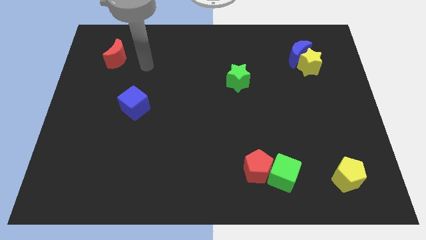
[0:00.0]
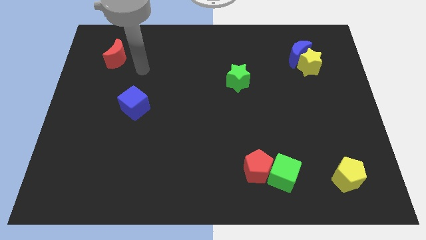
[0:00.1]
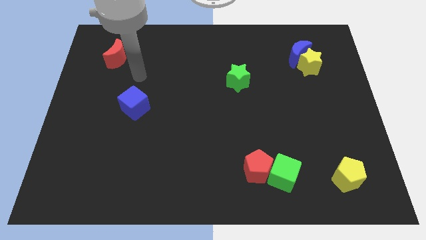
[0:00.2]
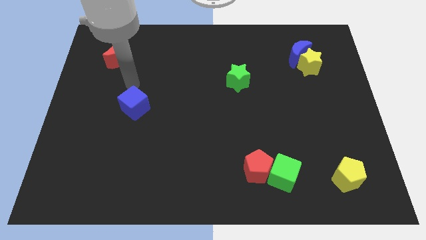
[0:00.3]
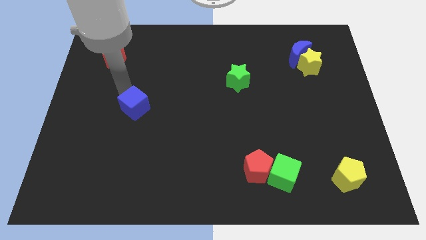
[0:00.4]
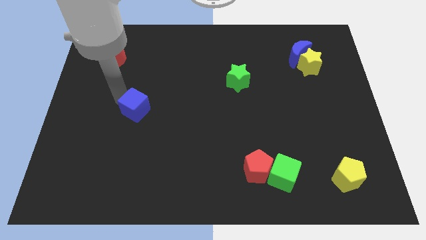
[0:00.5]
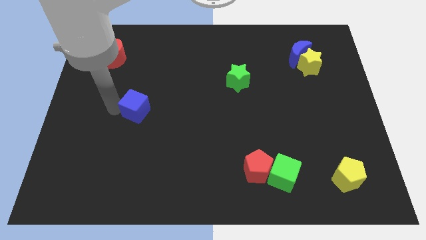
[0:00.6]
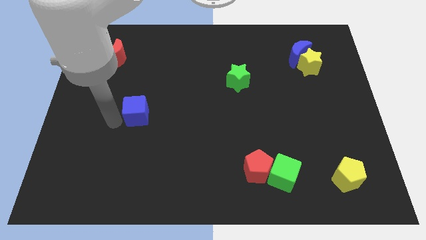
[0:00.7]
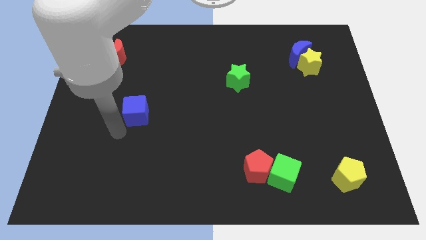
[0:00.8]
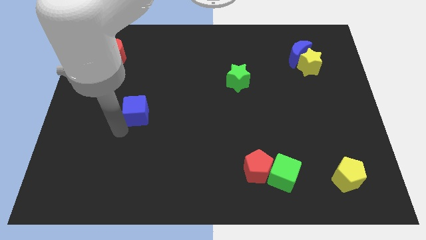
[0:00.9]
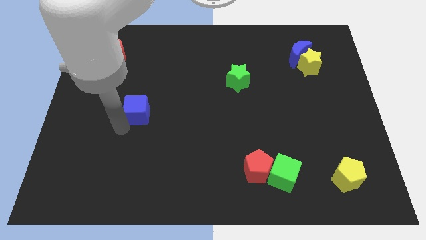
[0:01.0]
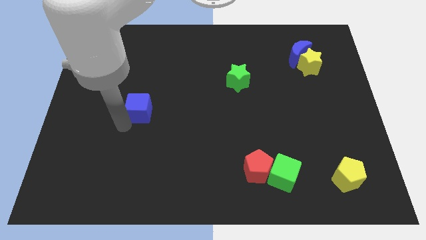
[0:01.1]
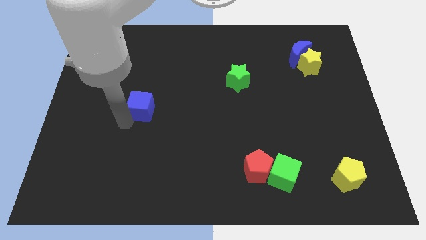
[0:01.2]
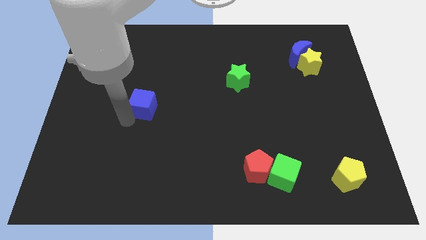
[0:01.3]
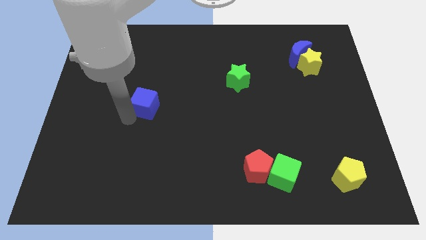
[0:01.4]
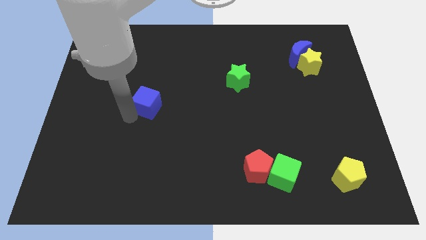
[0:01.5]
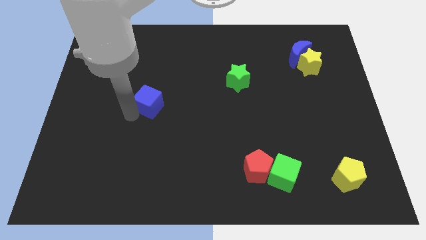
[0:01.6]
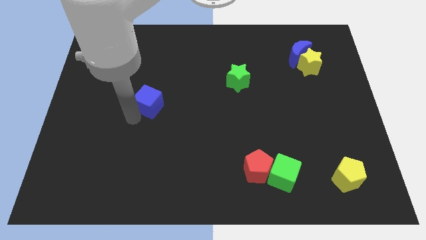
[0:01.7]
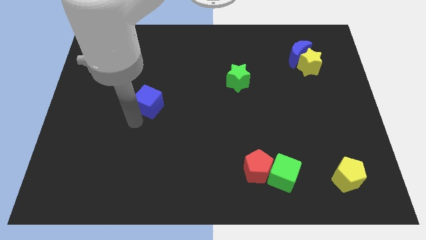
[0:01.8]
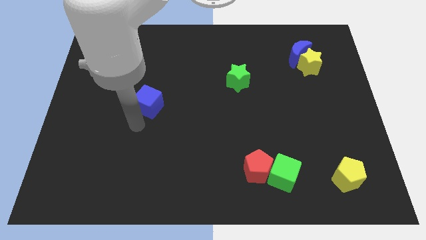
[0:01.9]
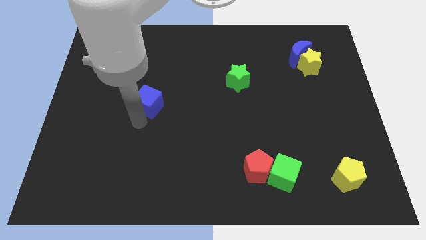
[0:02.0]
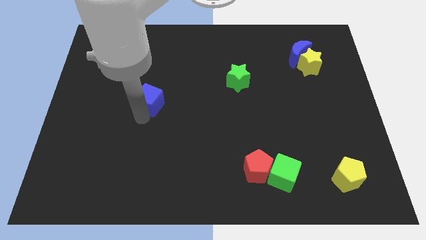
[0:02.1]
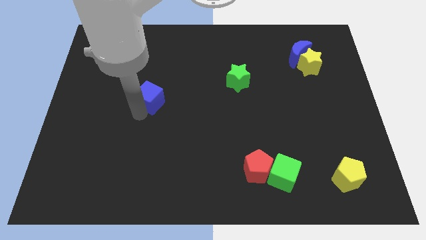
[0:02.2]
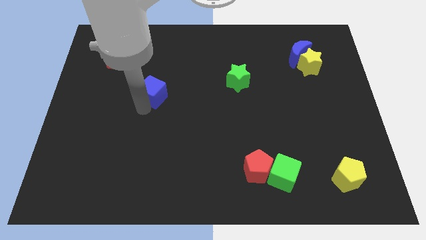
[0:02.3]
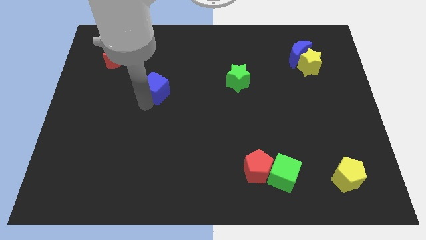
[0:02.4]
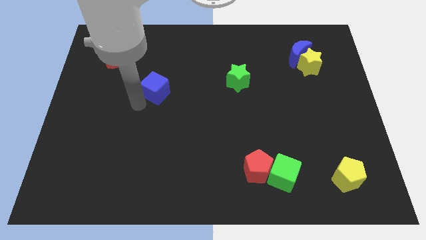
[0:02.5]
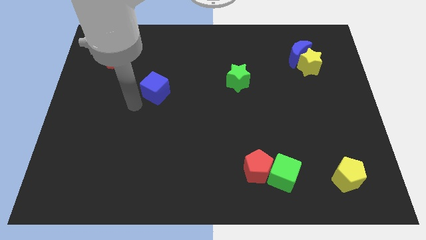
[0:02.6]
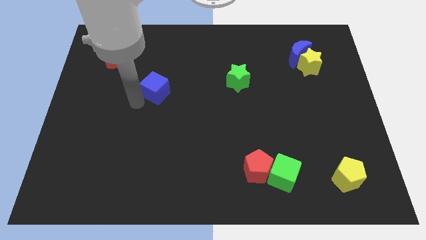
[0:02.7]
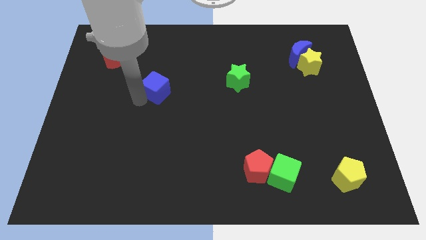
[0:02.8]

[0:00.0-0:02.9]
push the blue cube slightly diagonally up and to the right

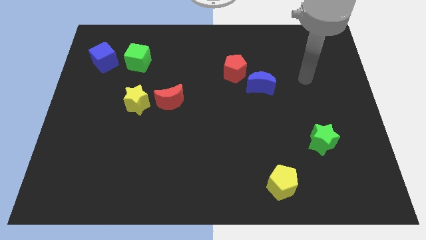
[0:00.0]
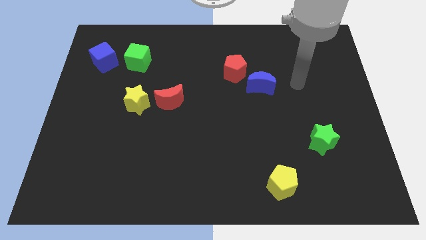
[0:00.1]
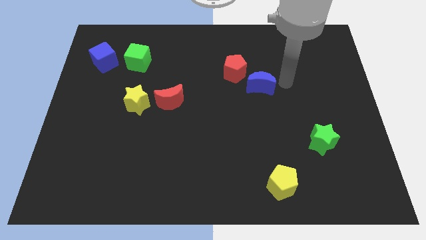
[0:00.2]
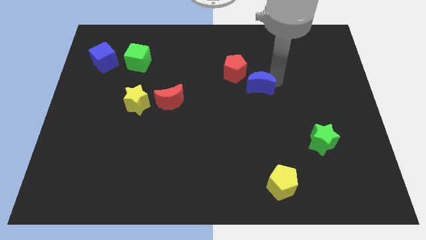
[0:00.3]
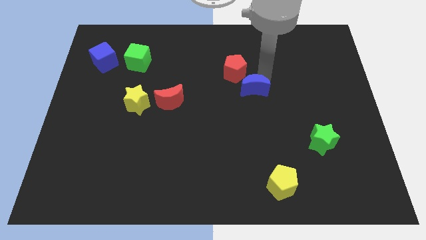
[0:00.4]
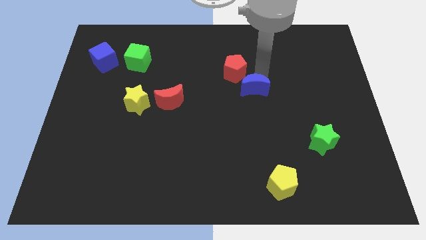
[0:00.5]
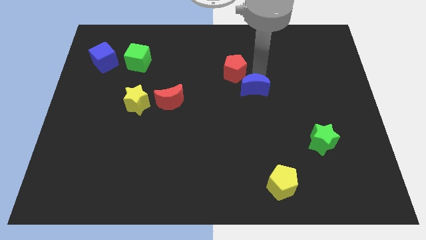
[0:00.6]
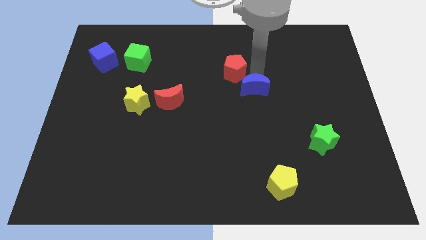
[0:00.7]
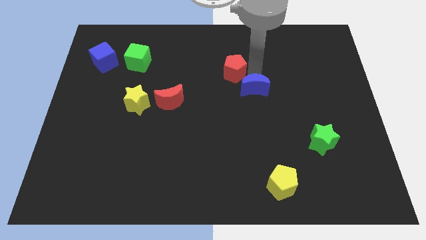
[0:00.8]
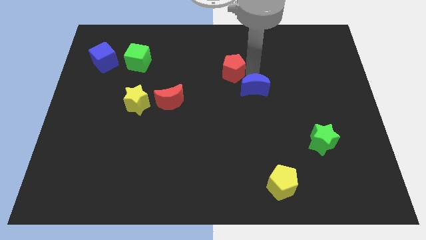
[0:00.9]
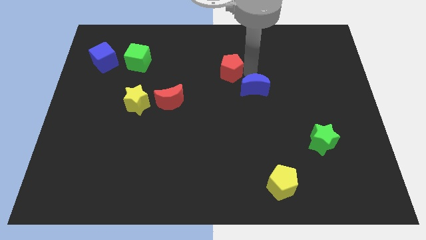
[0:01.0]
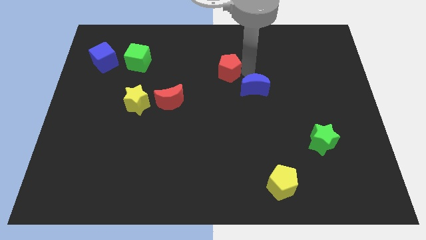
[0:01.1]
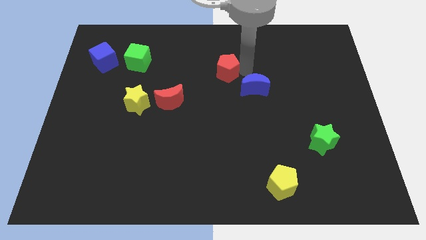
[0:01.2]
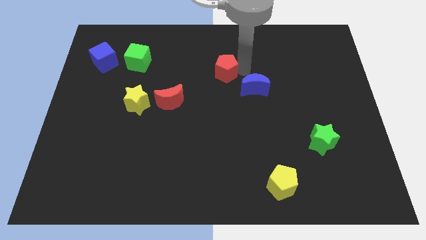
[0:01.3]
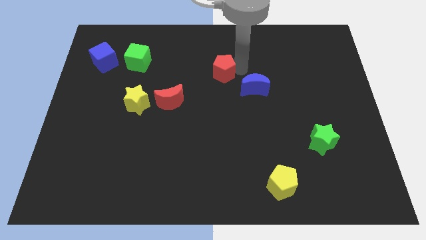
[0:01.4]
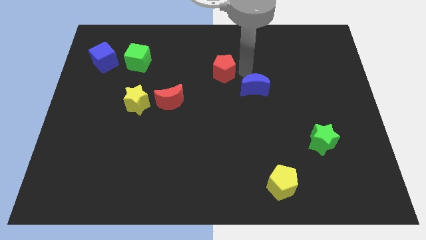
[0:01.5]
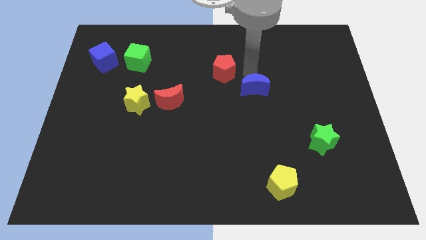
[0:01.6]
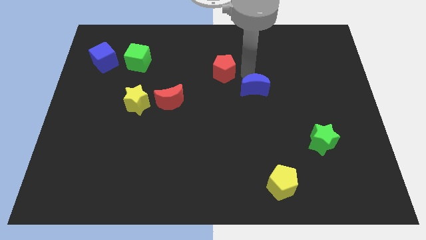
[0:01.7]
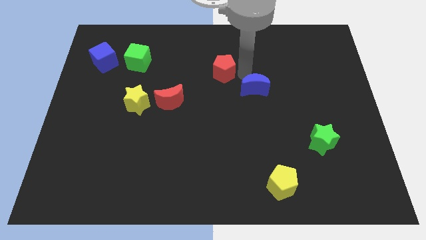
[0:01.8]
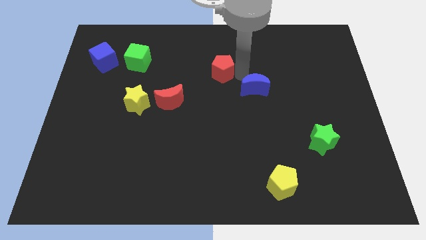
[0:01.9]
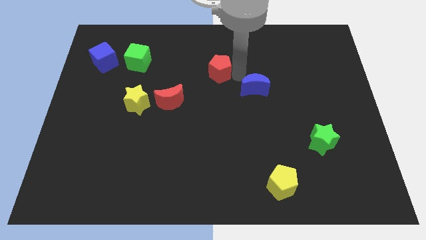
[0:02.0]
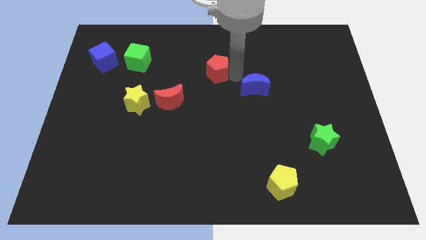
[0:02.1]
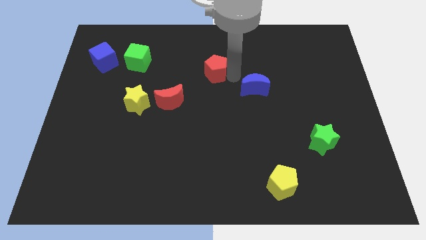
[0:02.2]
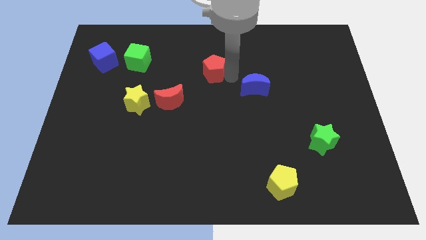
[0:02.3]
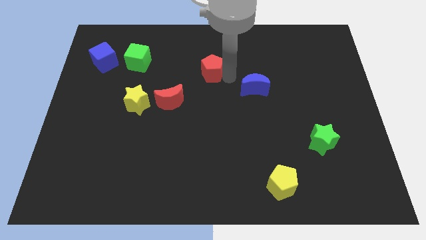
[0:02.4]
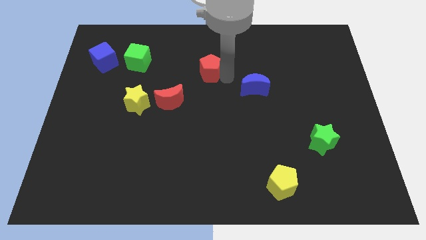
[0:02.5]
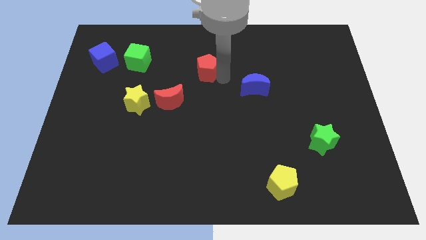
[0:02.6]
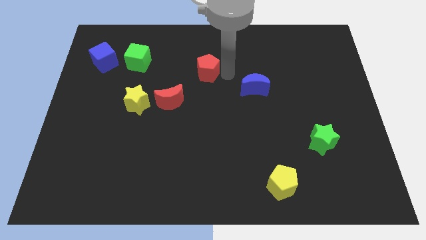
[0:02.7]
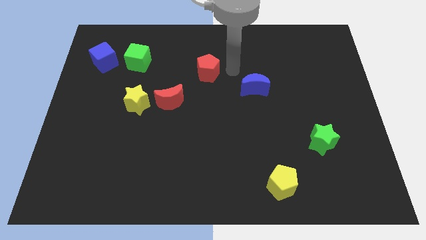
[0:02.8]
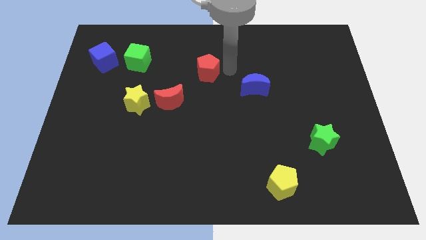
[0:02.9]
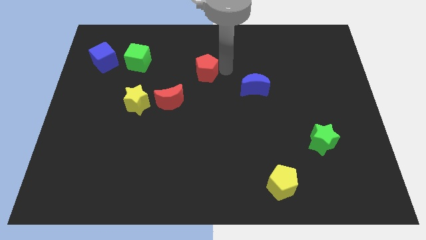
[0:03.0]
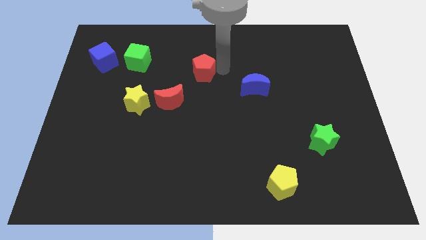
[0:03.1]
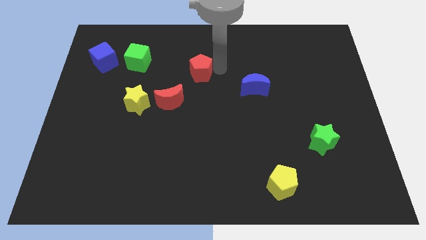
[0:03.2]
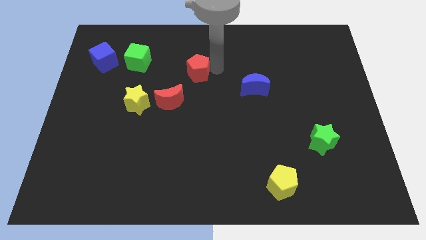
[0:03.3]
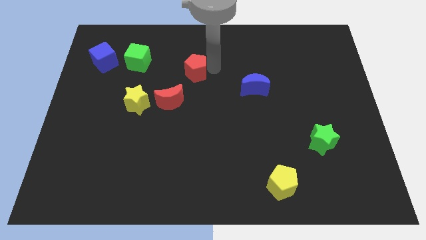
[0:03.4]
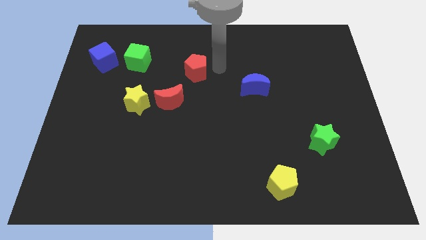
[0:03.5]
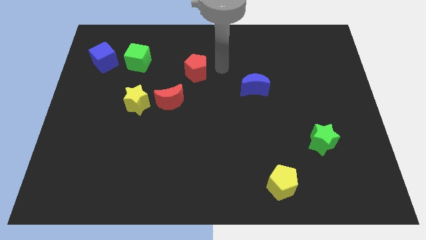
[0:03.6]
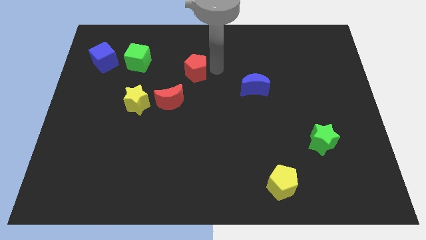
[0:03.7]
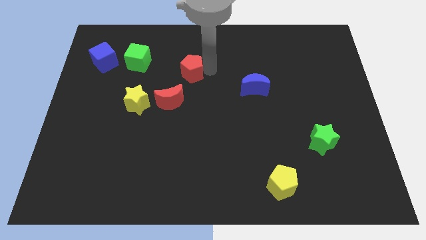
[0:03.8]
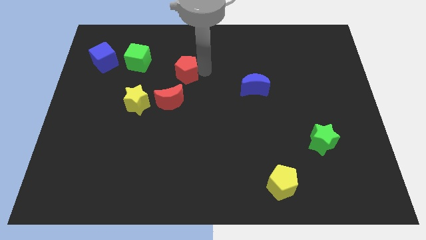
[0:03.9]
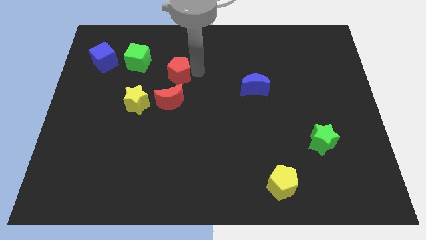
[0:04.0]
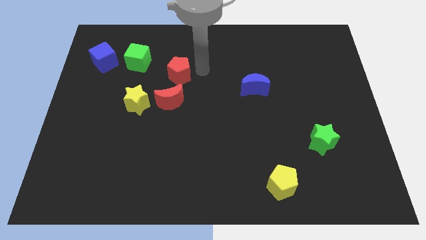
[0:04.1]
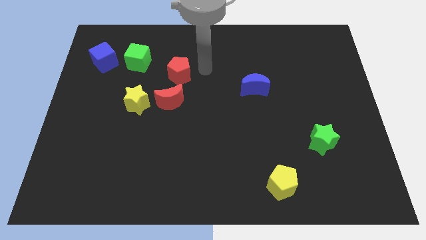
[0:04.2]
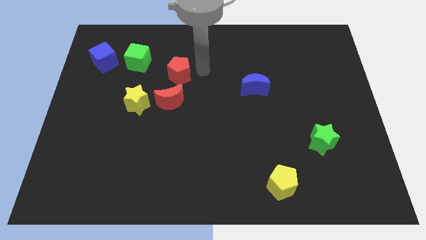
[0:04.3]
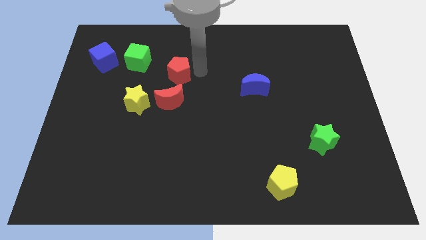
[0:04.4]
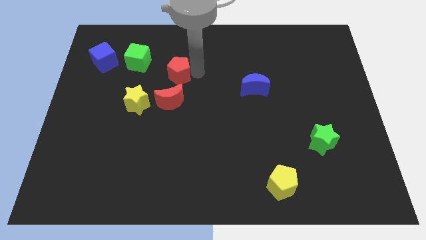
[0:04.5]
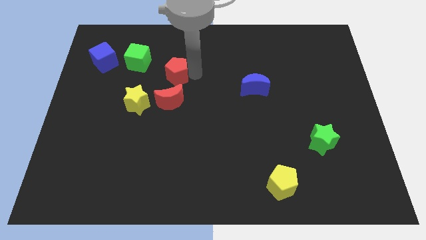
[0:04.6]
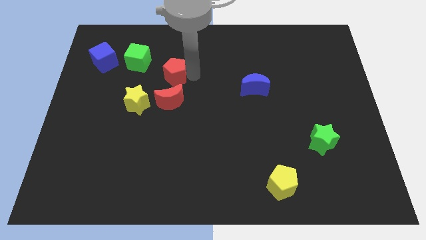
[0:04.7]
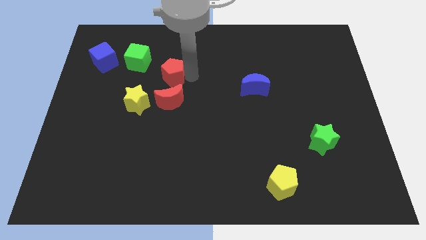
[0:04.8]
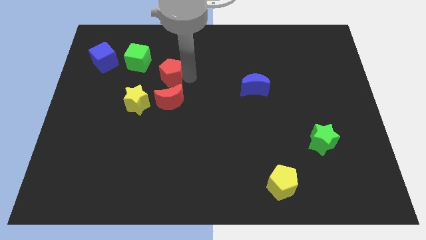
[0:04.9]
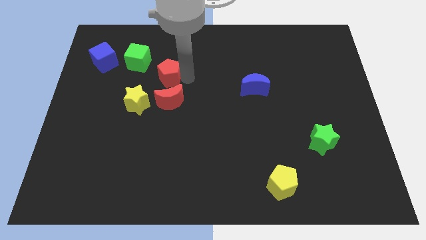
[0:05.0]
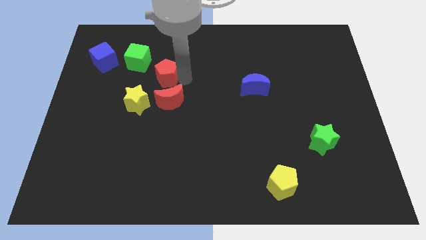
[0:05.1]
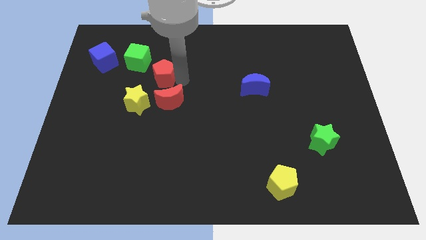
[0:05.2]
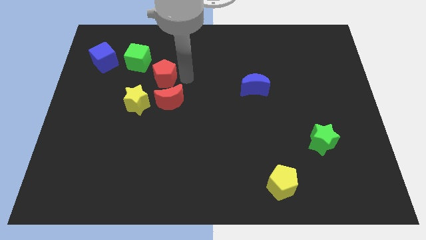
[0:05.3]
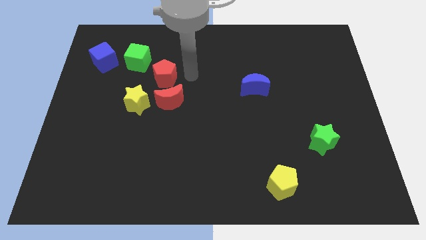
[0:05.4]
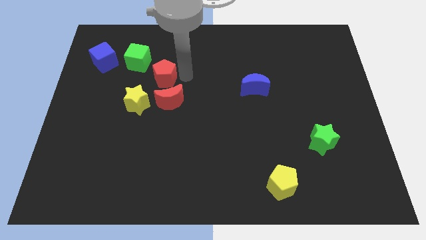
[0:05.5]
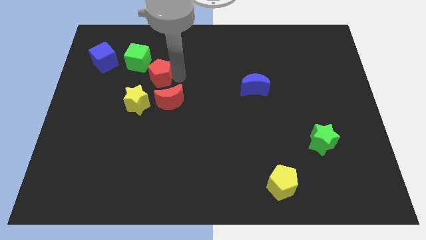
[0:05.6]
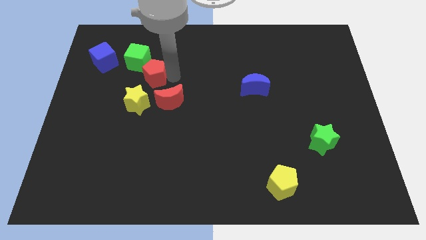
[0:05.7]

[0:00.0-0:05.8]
slide the red pentagon left
